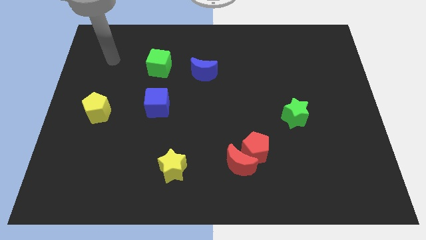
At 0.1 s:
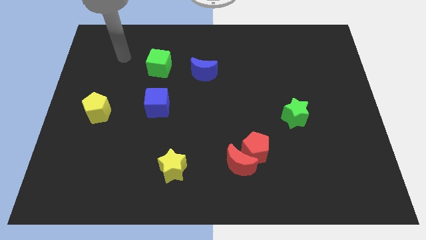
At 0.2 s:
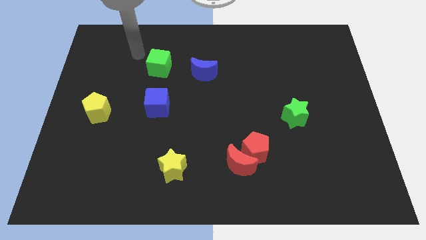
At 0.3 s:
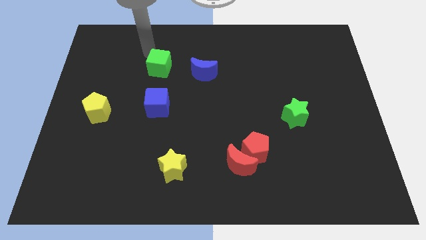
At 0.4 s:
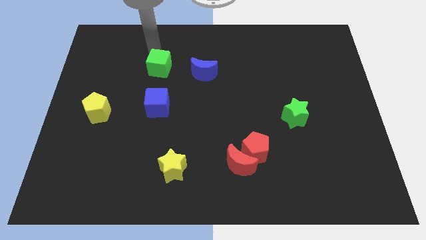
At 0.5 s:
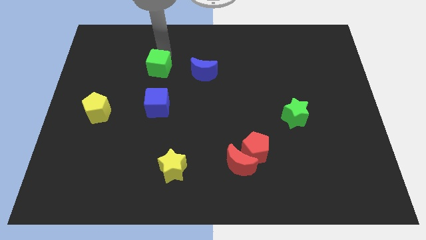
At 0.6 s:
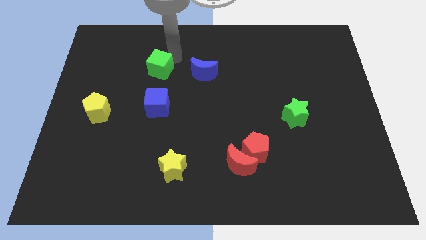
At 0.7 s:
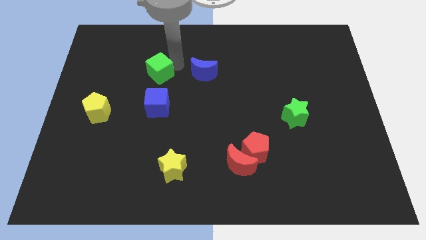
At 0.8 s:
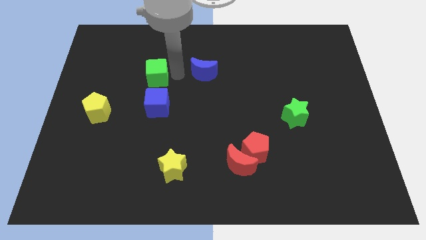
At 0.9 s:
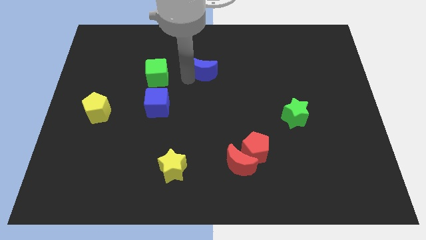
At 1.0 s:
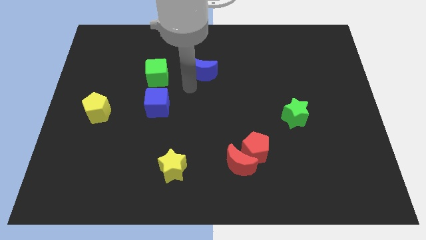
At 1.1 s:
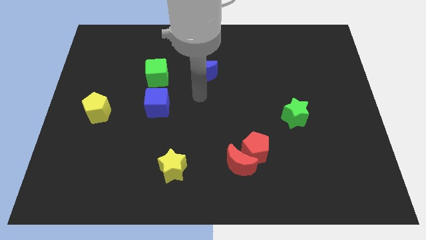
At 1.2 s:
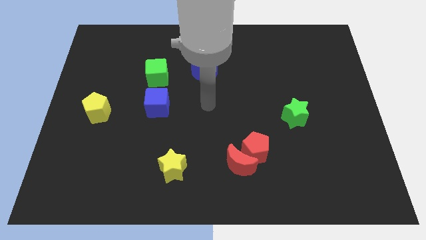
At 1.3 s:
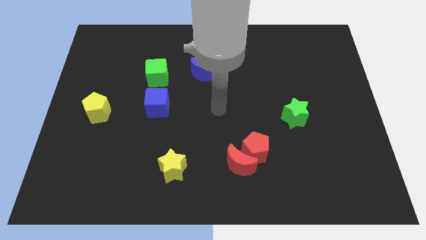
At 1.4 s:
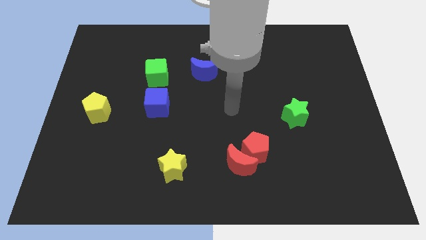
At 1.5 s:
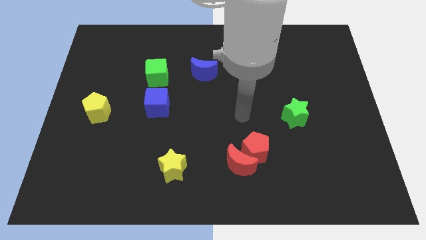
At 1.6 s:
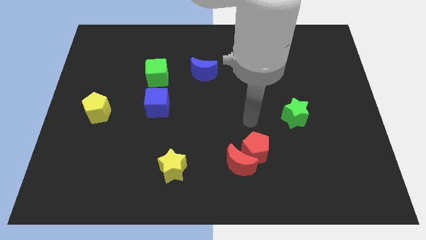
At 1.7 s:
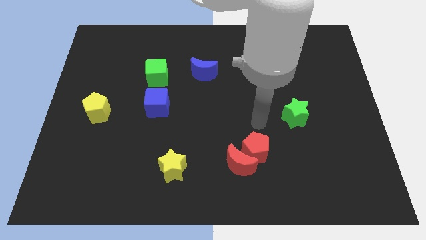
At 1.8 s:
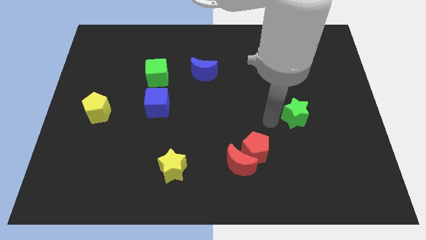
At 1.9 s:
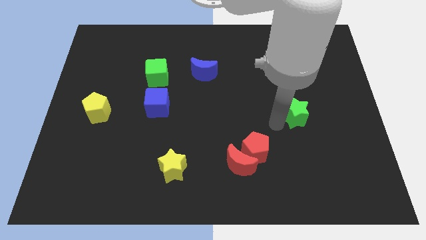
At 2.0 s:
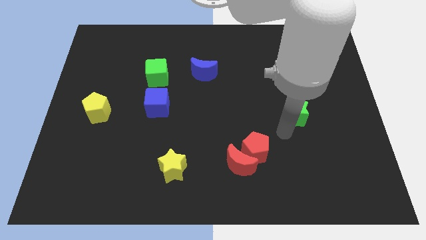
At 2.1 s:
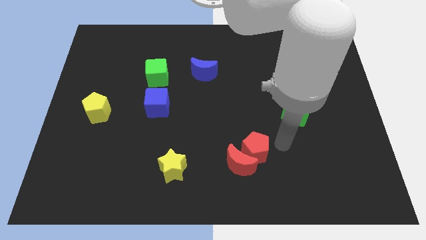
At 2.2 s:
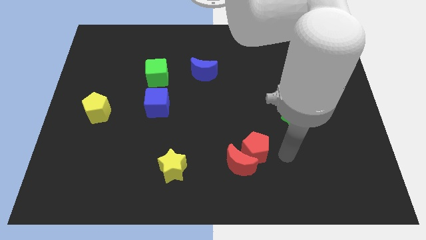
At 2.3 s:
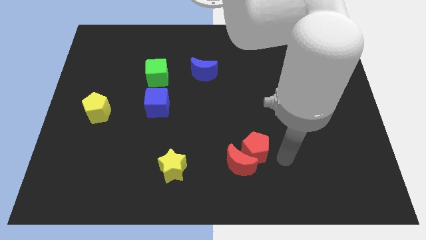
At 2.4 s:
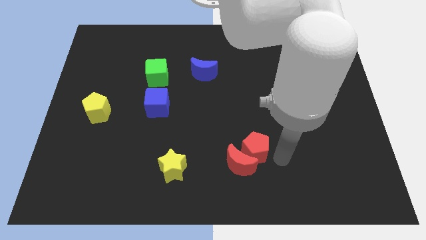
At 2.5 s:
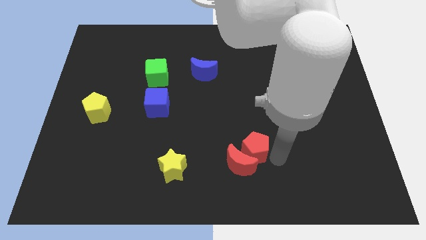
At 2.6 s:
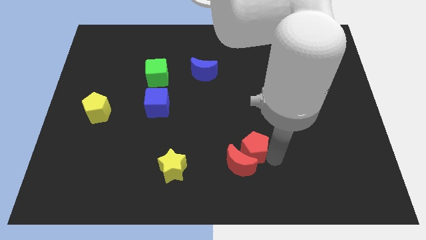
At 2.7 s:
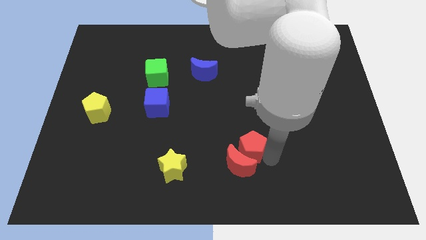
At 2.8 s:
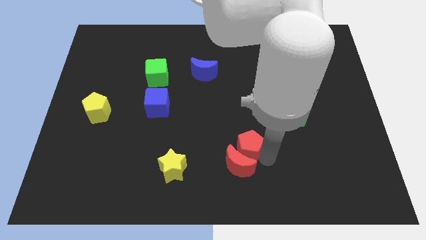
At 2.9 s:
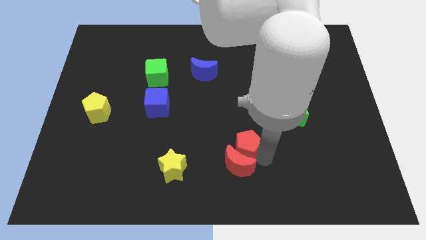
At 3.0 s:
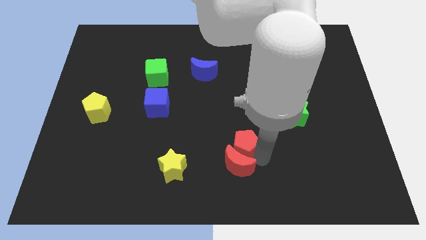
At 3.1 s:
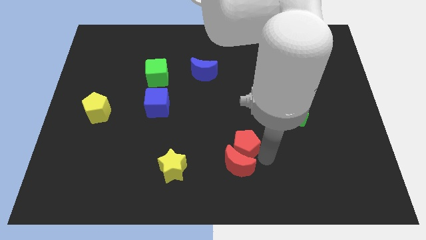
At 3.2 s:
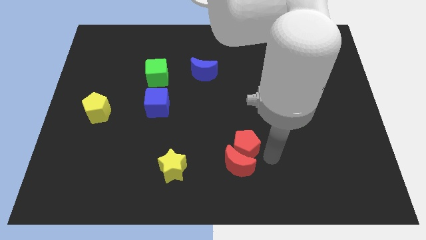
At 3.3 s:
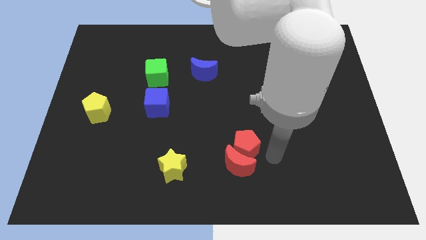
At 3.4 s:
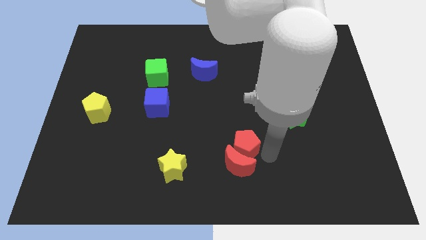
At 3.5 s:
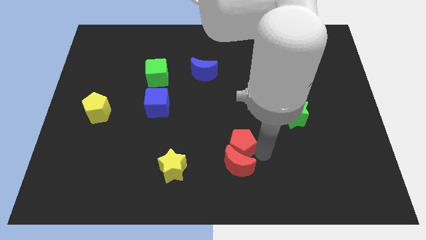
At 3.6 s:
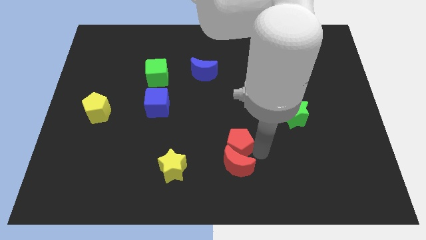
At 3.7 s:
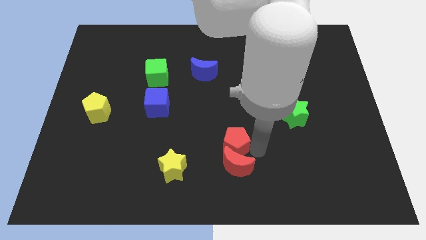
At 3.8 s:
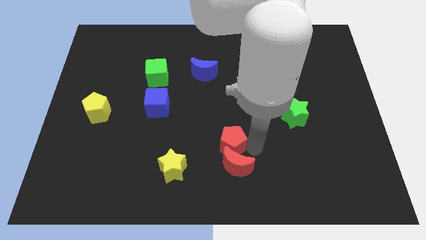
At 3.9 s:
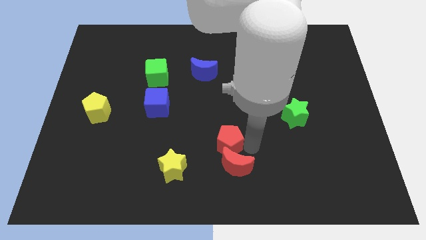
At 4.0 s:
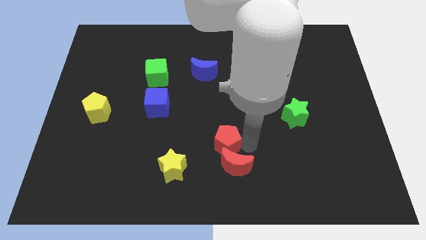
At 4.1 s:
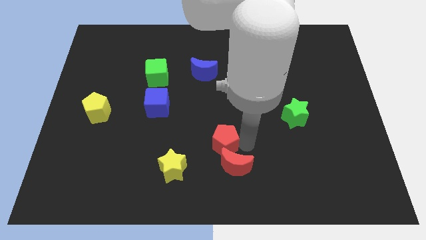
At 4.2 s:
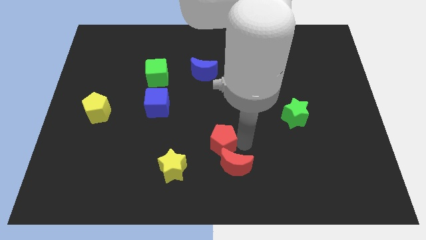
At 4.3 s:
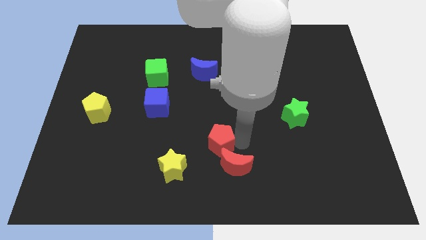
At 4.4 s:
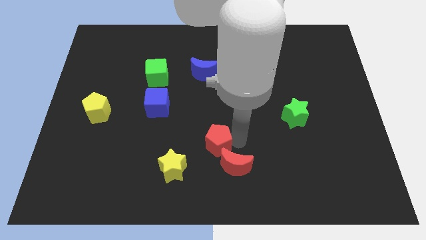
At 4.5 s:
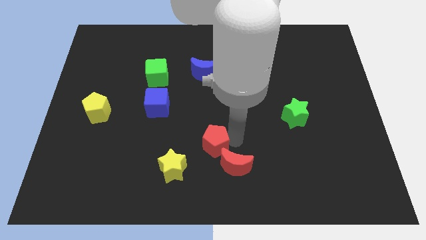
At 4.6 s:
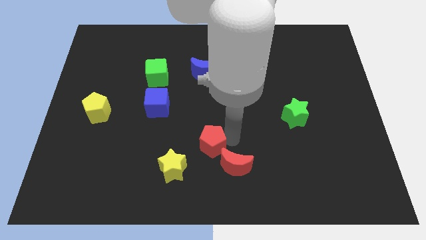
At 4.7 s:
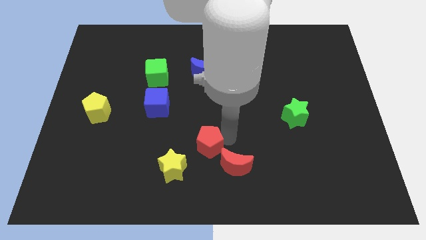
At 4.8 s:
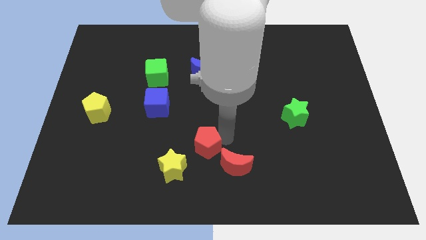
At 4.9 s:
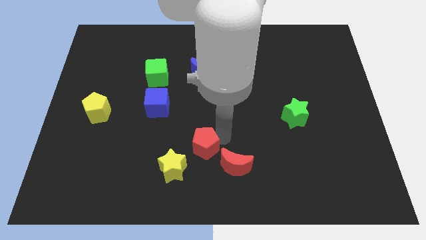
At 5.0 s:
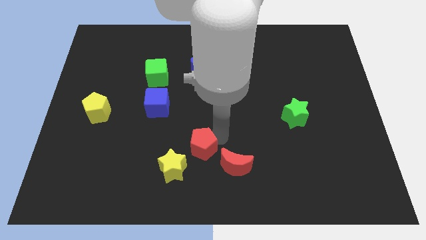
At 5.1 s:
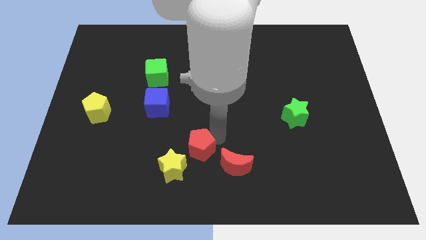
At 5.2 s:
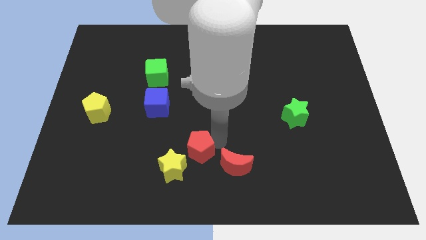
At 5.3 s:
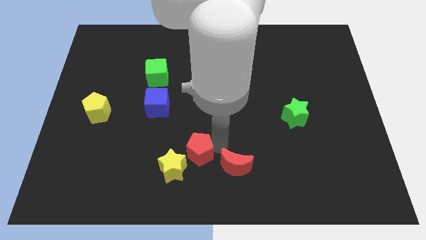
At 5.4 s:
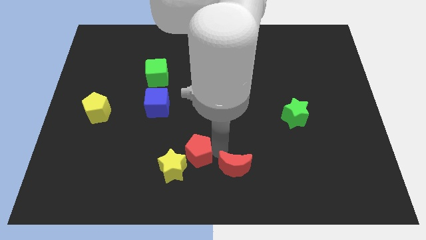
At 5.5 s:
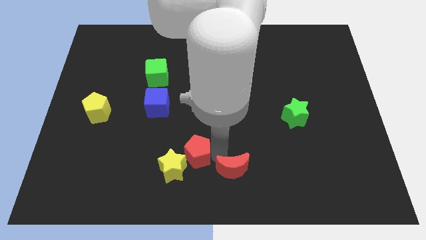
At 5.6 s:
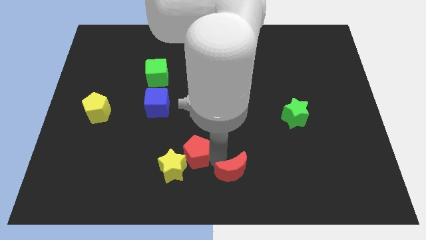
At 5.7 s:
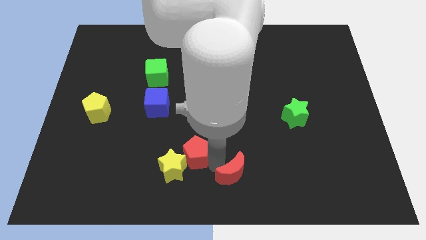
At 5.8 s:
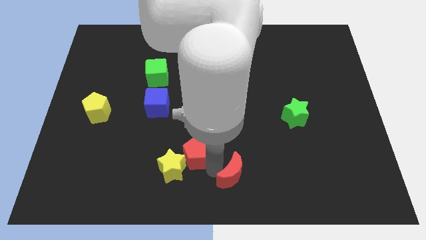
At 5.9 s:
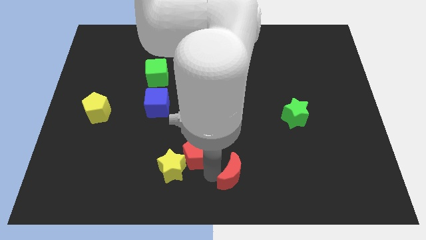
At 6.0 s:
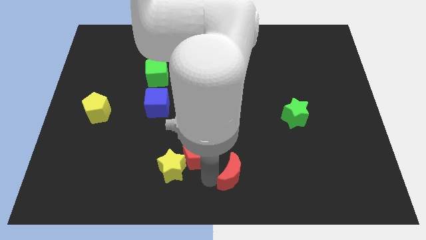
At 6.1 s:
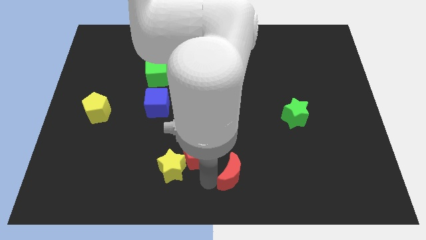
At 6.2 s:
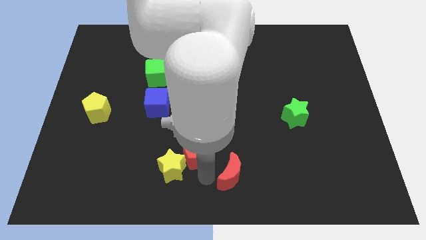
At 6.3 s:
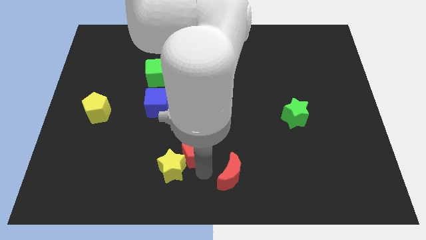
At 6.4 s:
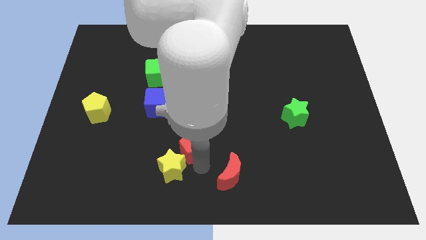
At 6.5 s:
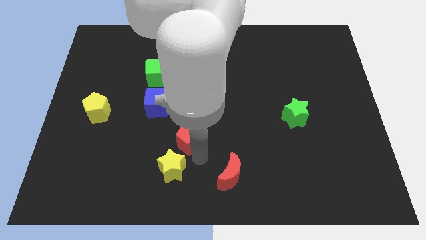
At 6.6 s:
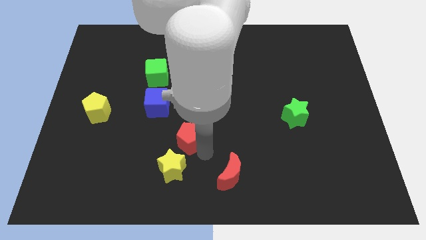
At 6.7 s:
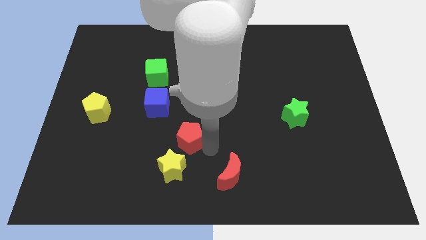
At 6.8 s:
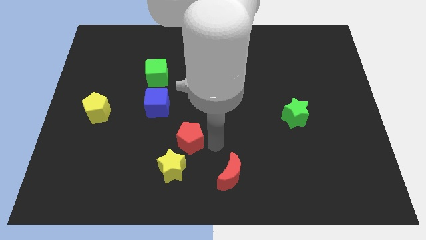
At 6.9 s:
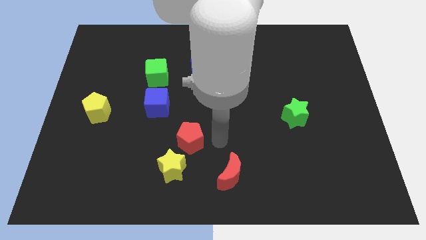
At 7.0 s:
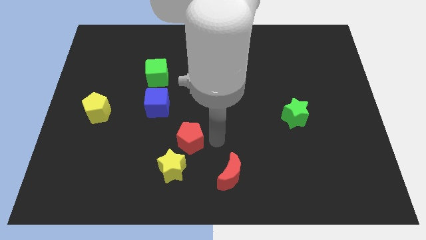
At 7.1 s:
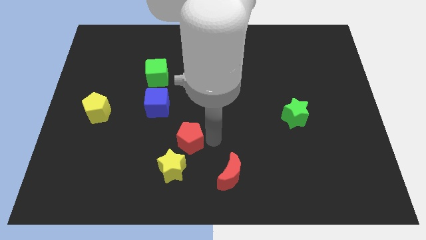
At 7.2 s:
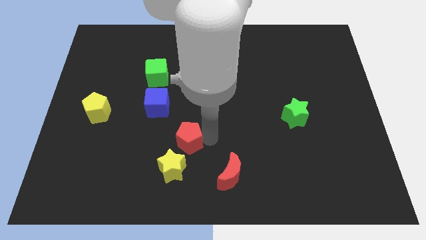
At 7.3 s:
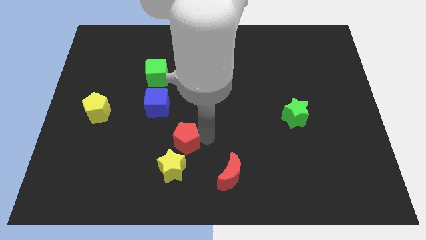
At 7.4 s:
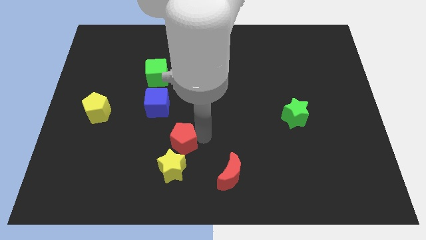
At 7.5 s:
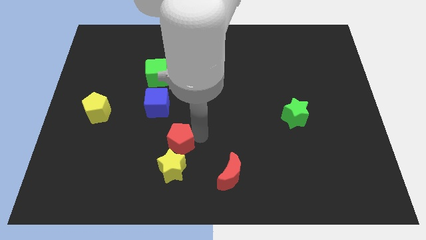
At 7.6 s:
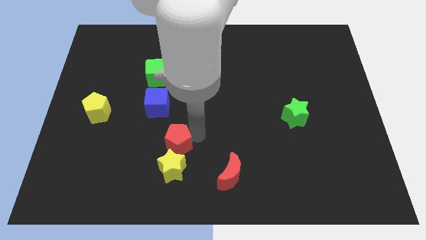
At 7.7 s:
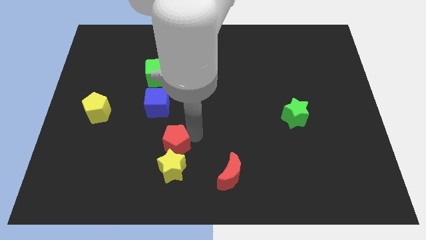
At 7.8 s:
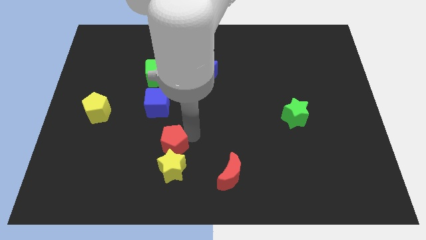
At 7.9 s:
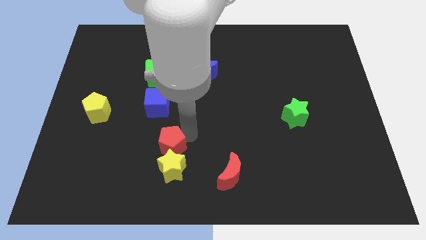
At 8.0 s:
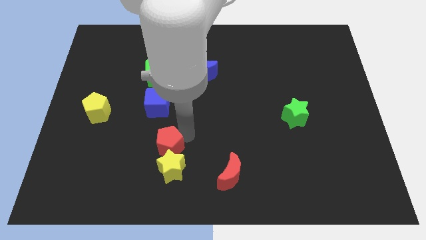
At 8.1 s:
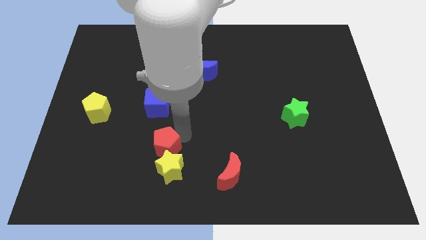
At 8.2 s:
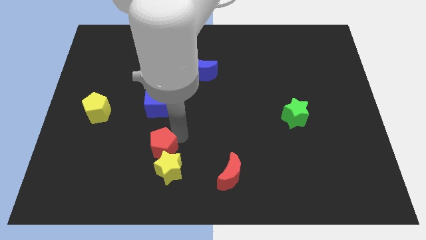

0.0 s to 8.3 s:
move the red pentagon left
